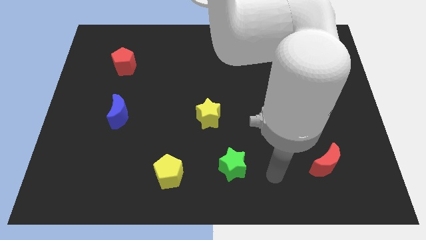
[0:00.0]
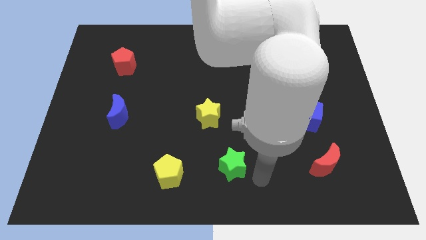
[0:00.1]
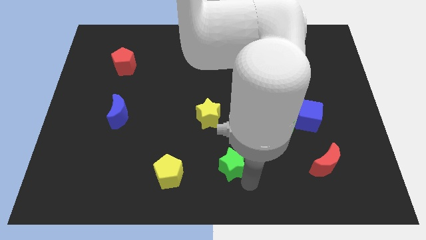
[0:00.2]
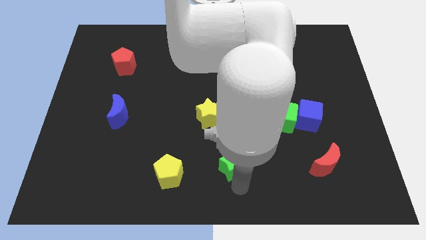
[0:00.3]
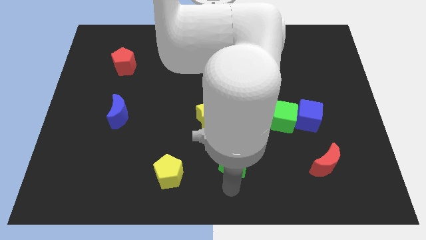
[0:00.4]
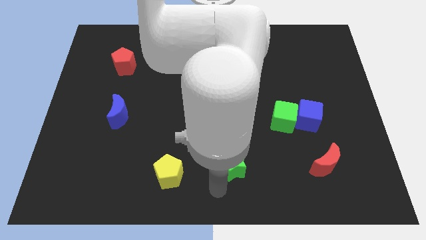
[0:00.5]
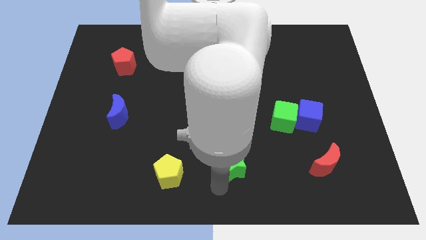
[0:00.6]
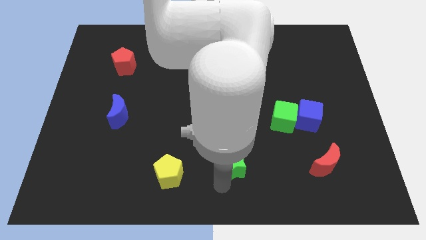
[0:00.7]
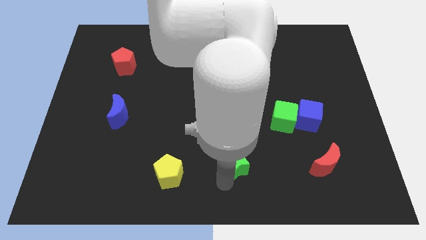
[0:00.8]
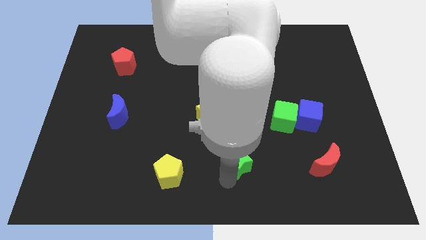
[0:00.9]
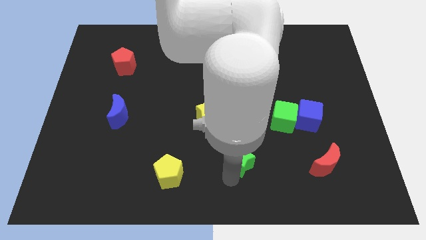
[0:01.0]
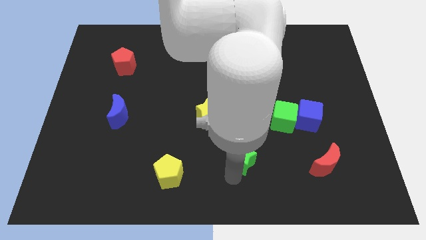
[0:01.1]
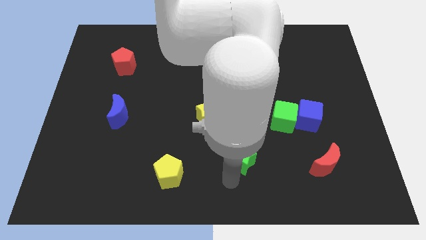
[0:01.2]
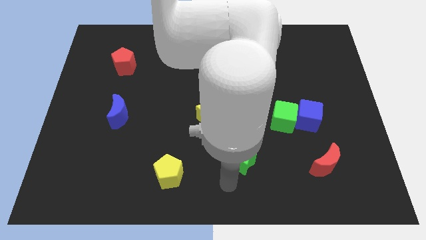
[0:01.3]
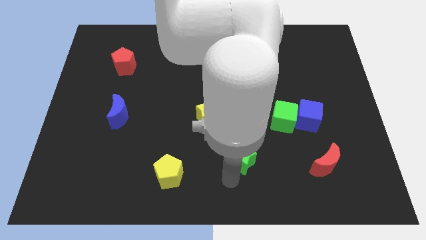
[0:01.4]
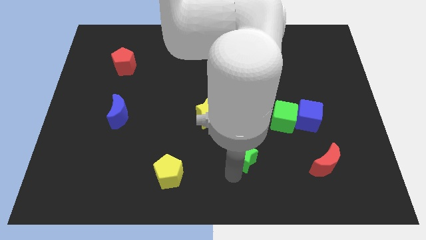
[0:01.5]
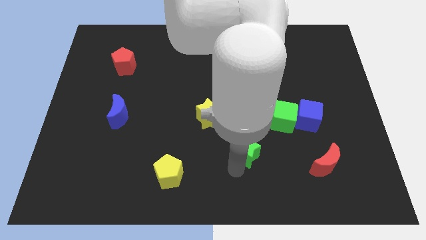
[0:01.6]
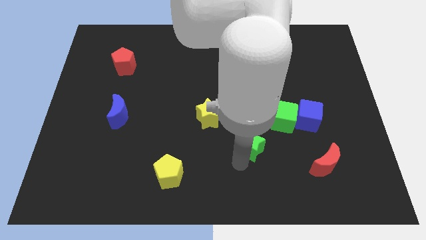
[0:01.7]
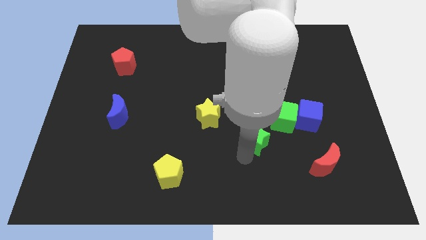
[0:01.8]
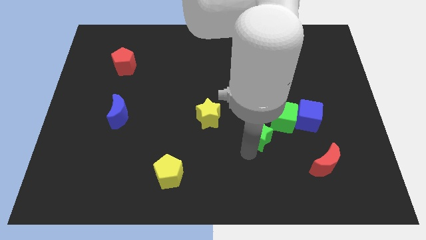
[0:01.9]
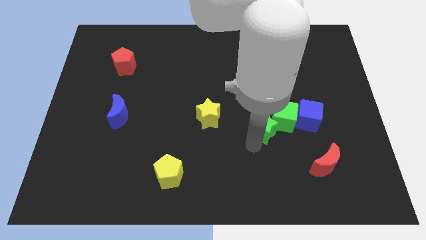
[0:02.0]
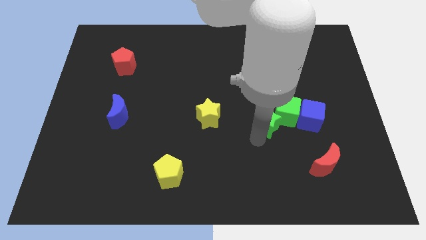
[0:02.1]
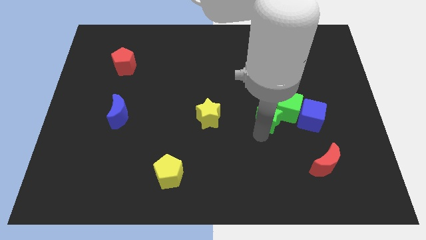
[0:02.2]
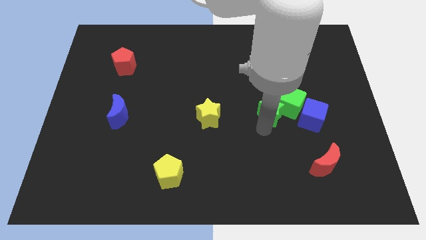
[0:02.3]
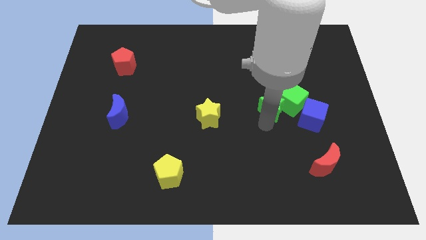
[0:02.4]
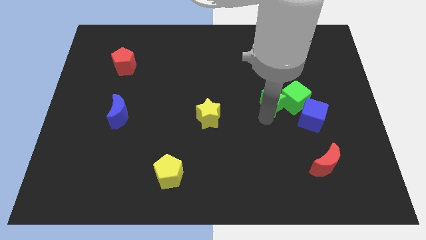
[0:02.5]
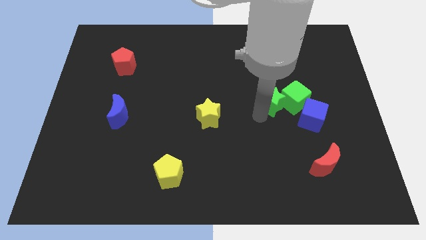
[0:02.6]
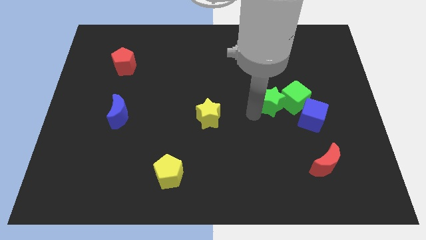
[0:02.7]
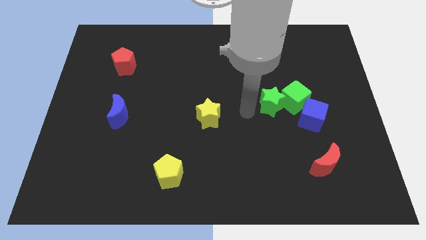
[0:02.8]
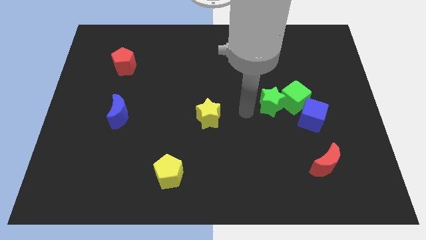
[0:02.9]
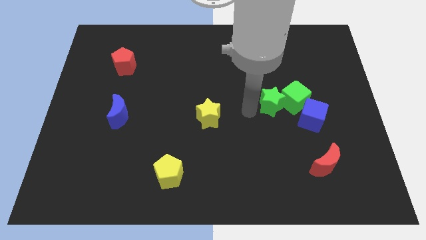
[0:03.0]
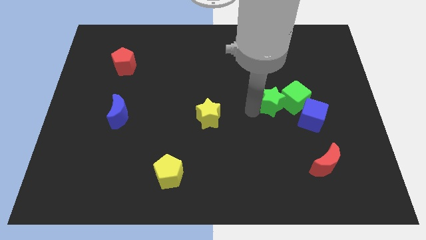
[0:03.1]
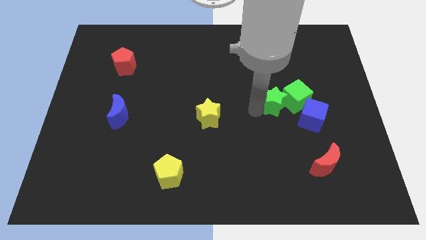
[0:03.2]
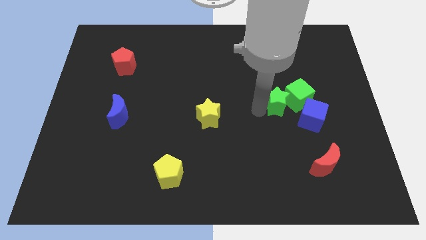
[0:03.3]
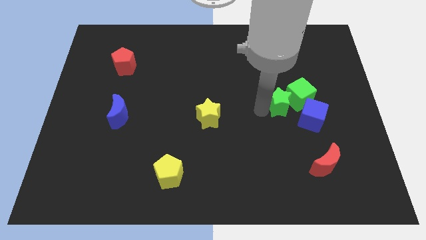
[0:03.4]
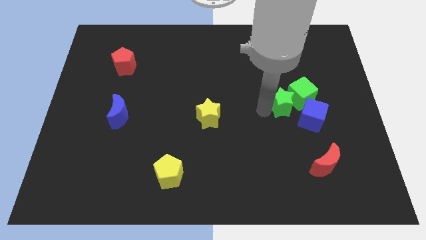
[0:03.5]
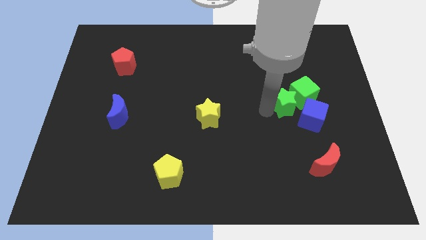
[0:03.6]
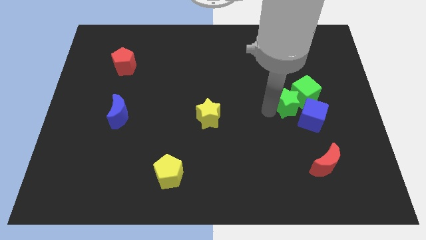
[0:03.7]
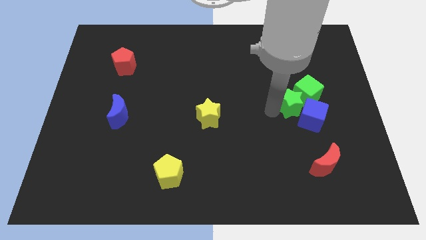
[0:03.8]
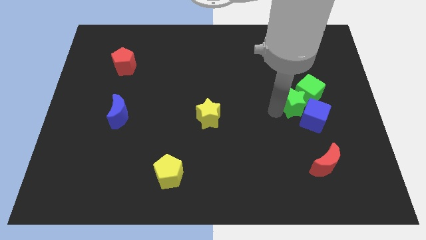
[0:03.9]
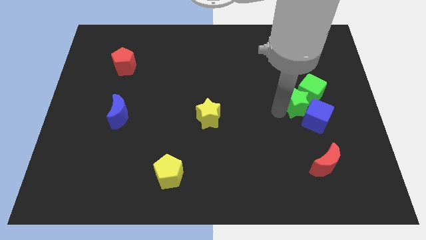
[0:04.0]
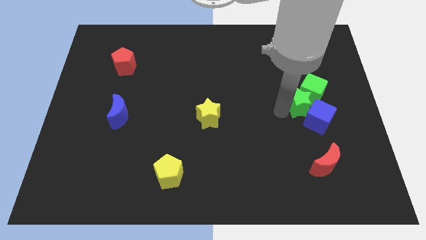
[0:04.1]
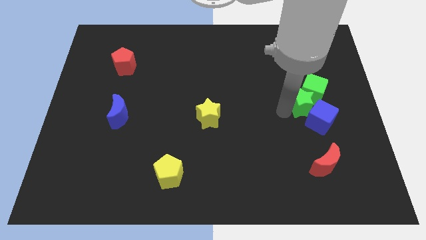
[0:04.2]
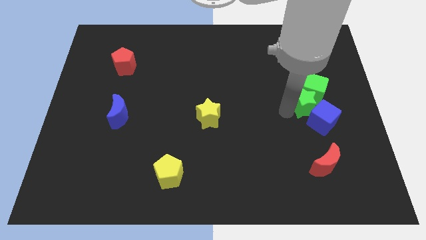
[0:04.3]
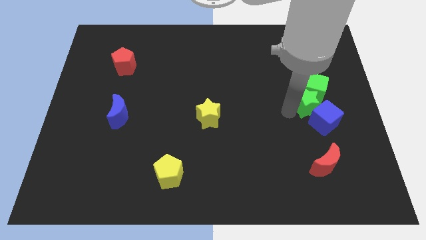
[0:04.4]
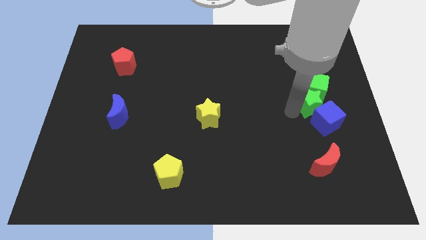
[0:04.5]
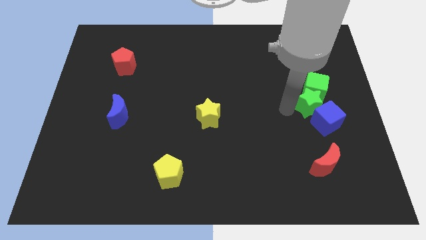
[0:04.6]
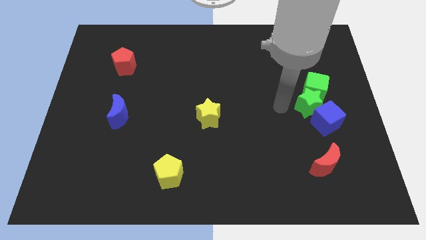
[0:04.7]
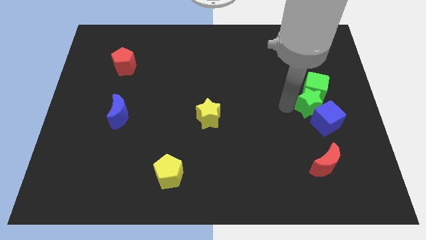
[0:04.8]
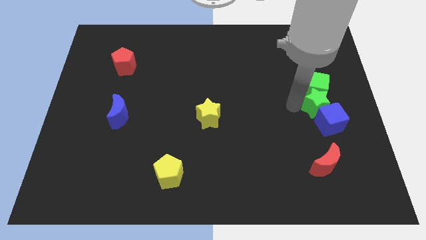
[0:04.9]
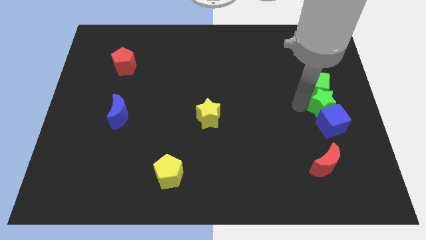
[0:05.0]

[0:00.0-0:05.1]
push the green star to the right side of the board

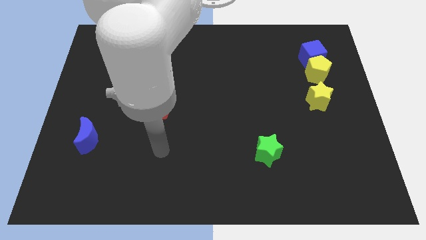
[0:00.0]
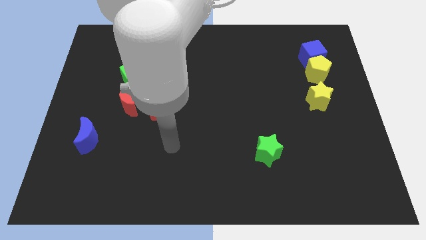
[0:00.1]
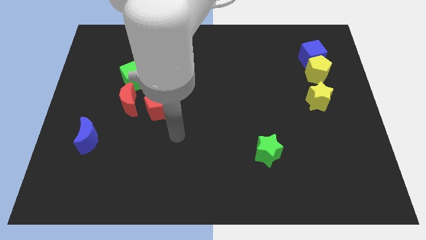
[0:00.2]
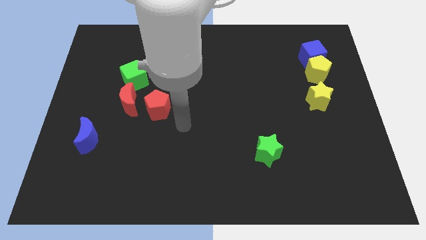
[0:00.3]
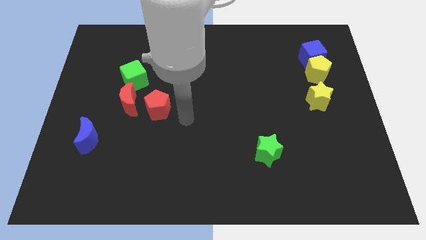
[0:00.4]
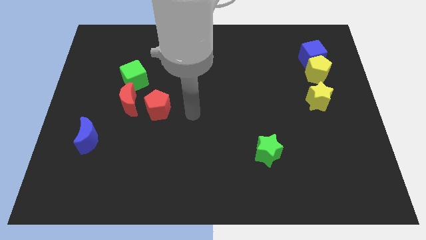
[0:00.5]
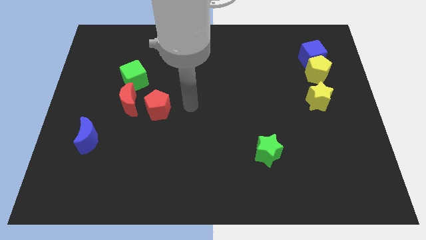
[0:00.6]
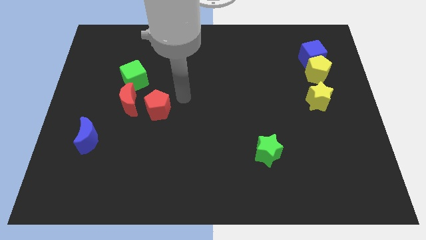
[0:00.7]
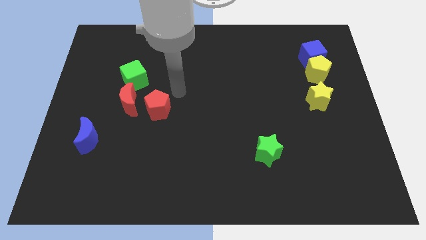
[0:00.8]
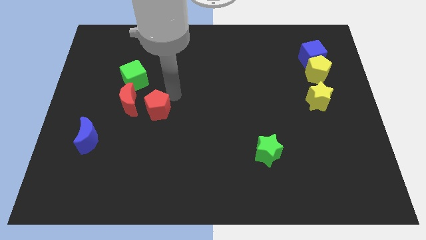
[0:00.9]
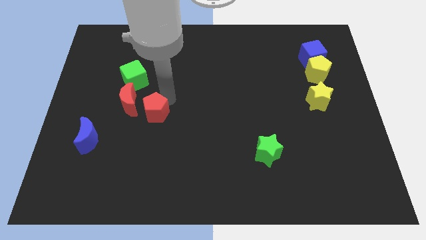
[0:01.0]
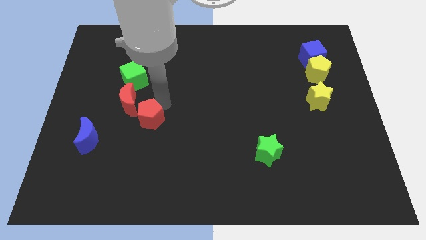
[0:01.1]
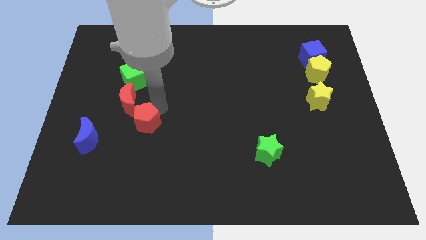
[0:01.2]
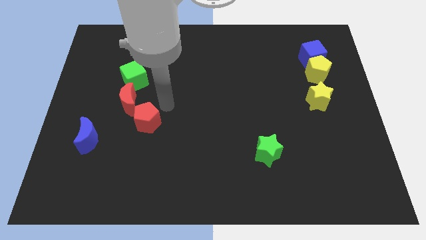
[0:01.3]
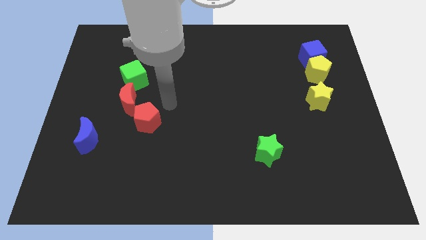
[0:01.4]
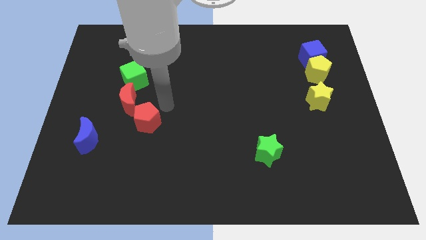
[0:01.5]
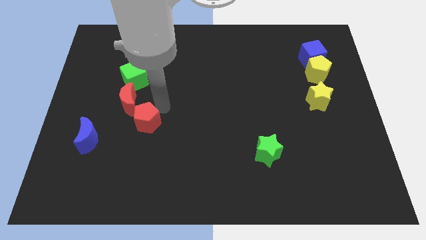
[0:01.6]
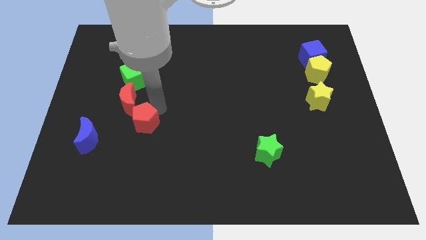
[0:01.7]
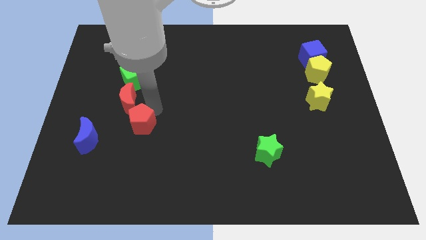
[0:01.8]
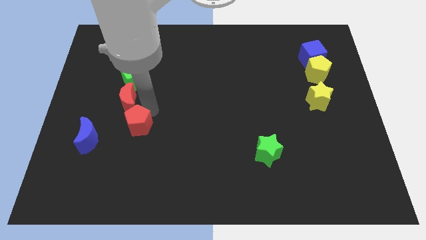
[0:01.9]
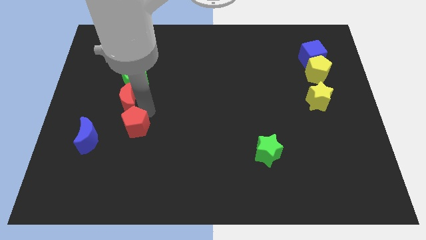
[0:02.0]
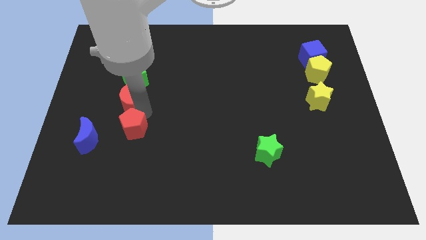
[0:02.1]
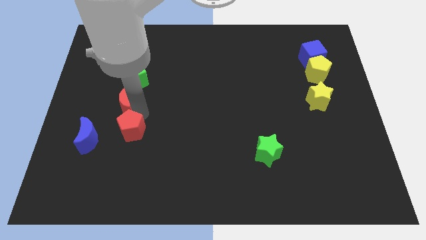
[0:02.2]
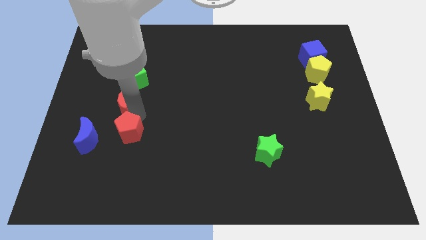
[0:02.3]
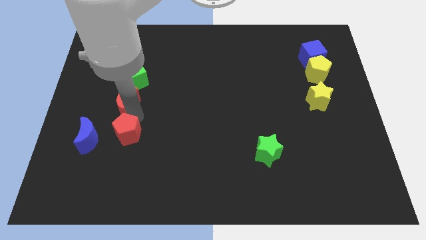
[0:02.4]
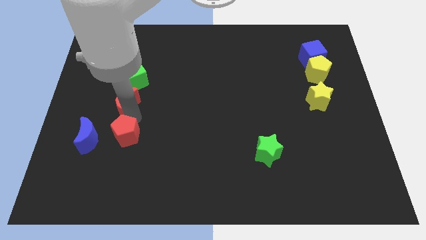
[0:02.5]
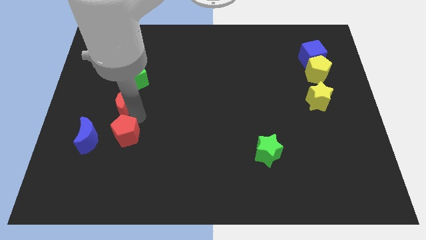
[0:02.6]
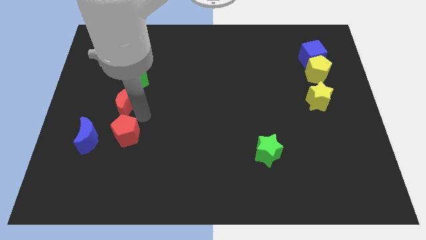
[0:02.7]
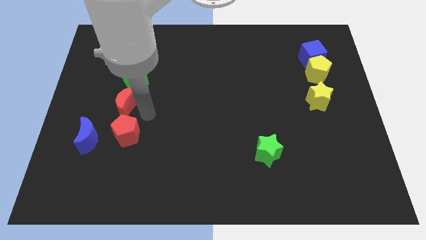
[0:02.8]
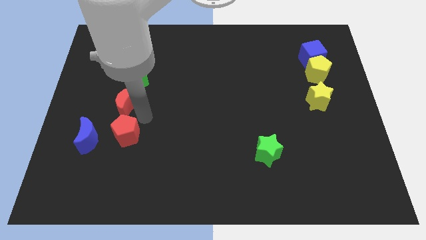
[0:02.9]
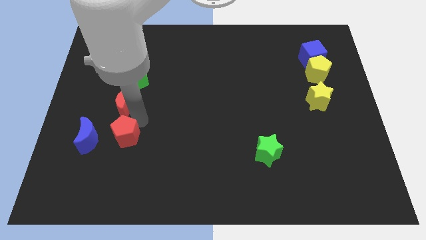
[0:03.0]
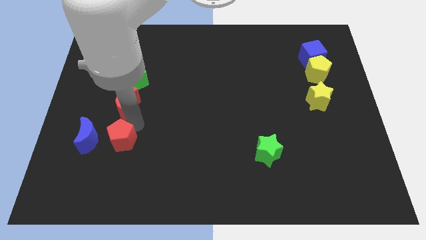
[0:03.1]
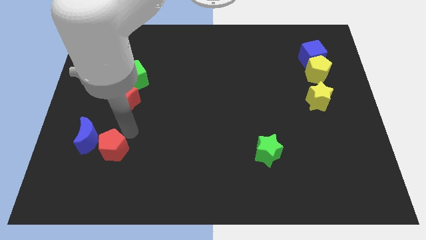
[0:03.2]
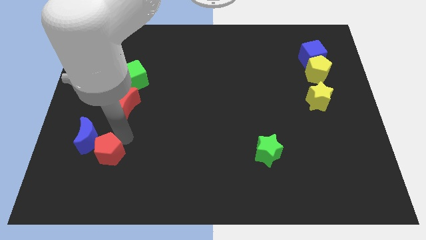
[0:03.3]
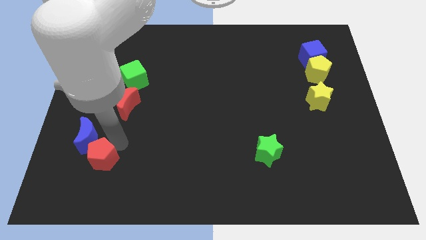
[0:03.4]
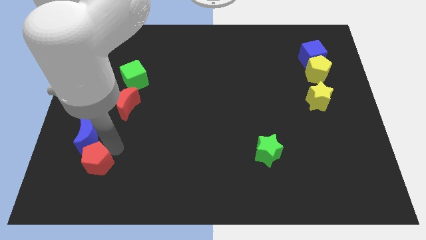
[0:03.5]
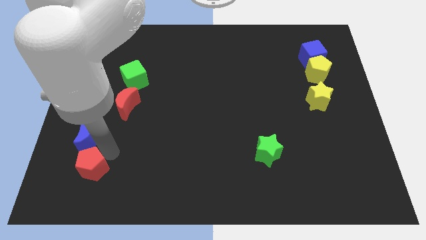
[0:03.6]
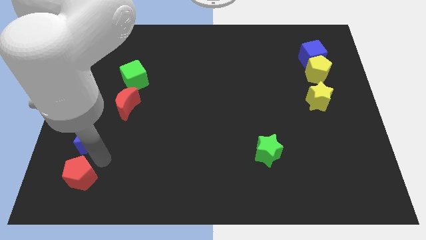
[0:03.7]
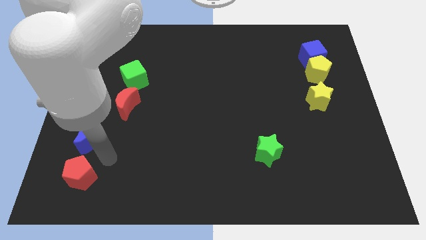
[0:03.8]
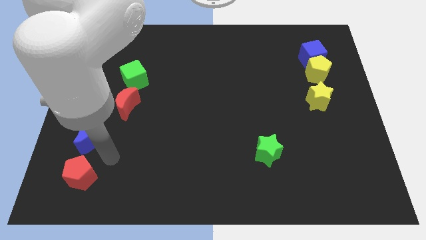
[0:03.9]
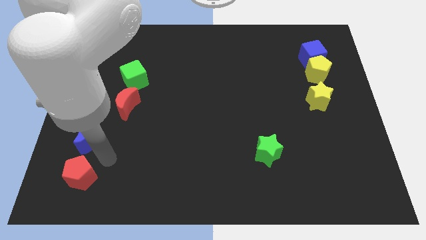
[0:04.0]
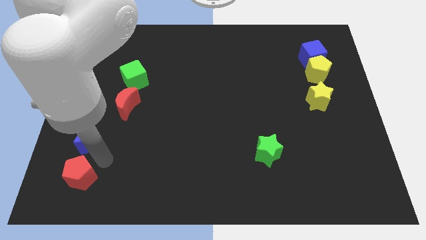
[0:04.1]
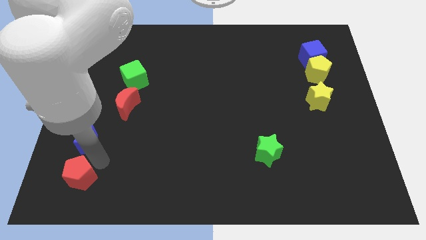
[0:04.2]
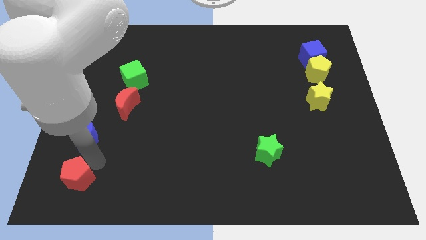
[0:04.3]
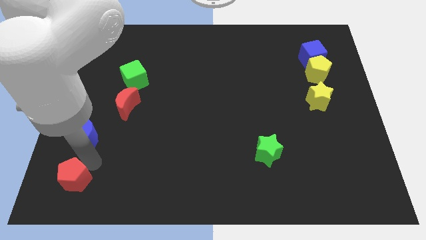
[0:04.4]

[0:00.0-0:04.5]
push the red pentagon to the lower left corner
